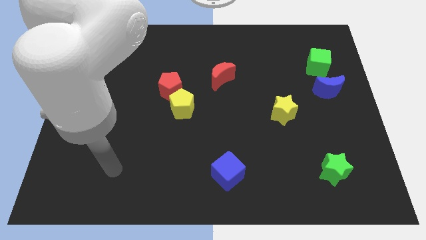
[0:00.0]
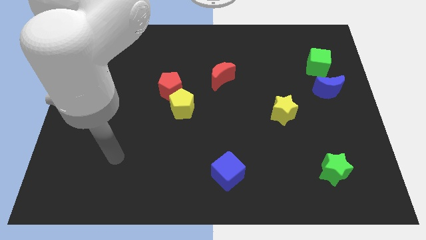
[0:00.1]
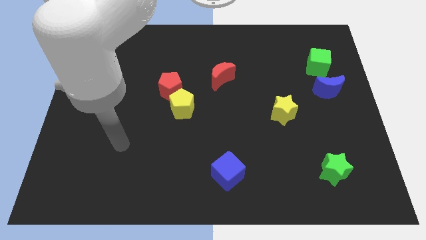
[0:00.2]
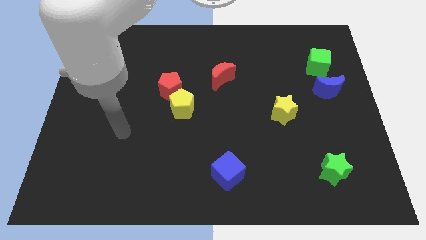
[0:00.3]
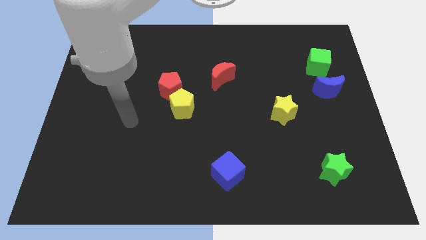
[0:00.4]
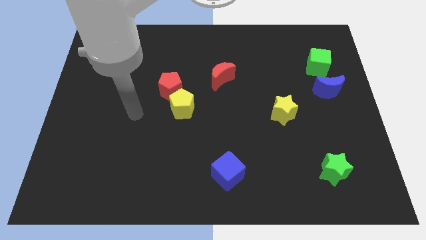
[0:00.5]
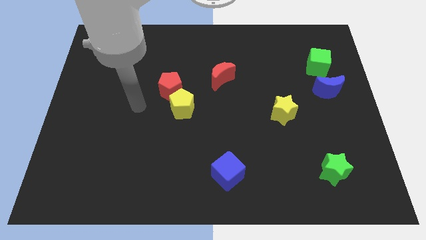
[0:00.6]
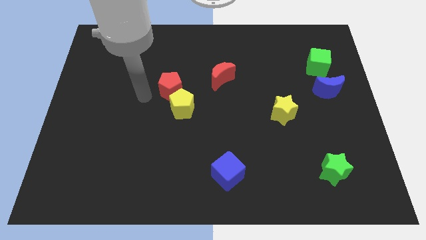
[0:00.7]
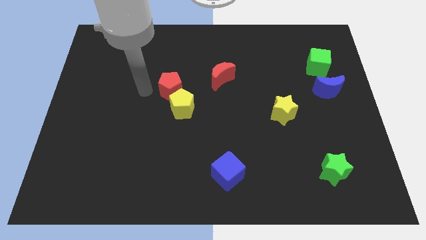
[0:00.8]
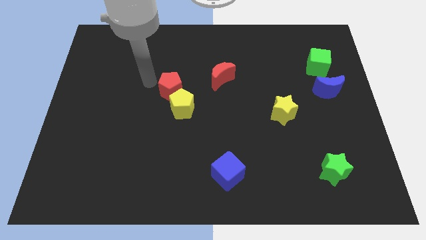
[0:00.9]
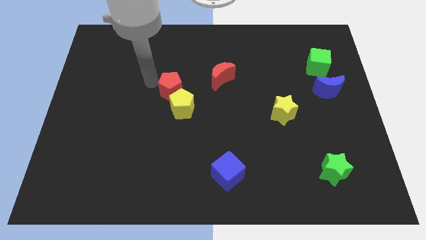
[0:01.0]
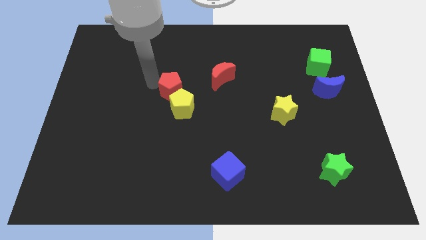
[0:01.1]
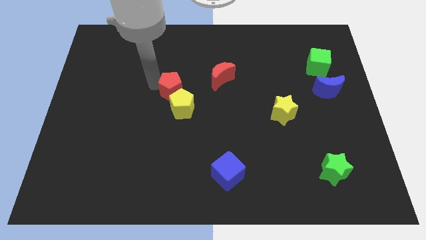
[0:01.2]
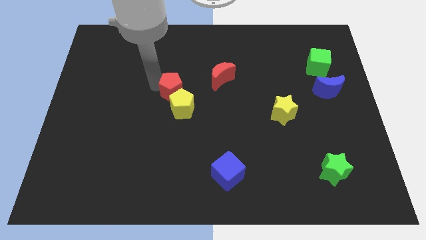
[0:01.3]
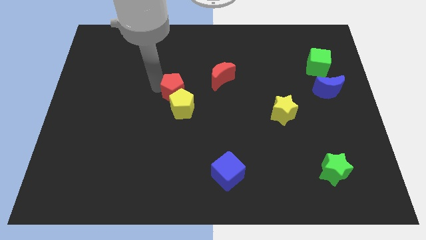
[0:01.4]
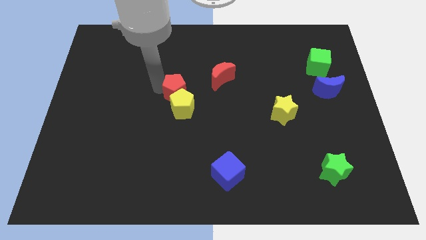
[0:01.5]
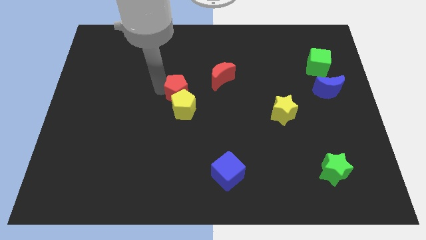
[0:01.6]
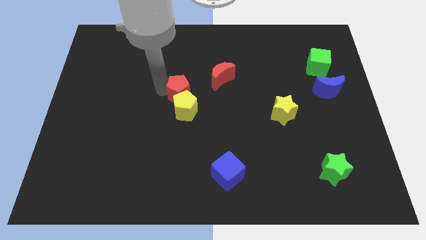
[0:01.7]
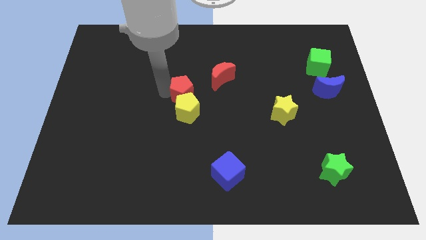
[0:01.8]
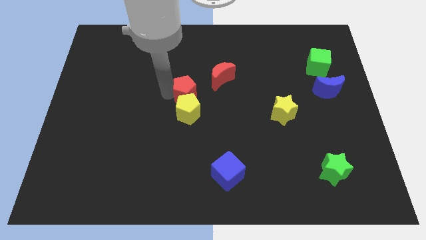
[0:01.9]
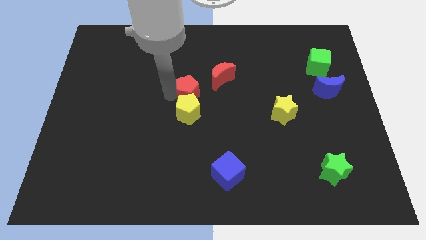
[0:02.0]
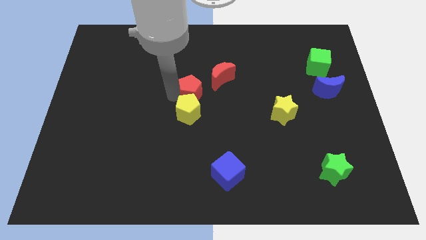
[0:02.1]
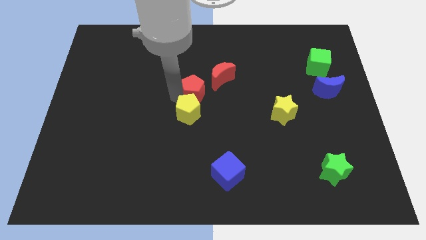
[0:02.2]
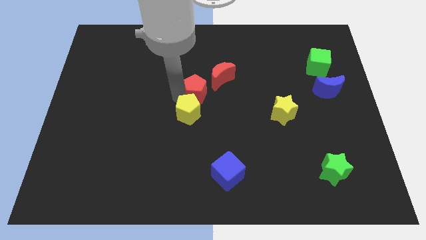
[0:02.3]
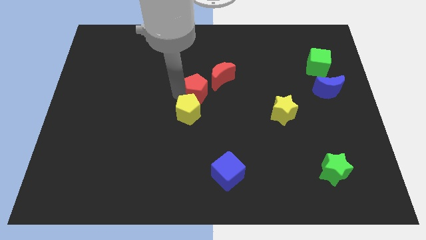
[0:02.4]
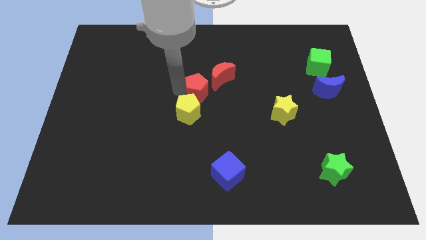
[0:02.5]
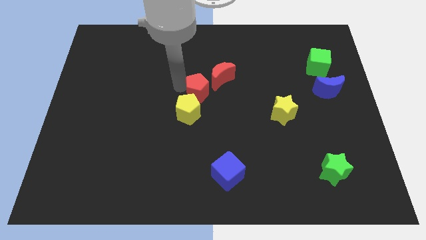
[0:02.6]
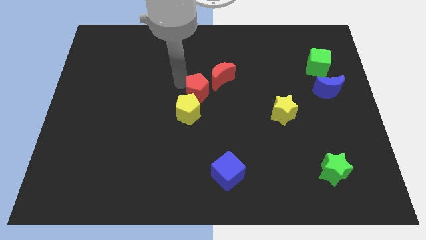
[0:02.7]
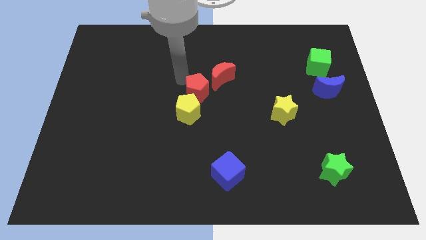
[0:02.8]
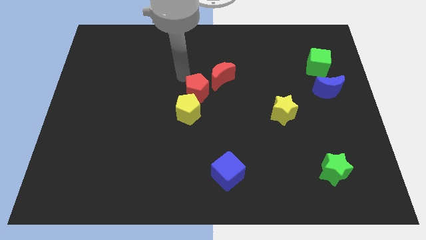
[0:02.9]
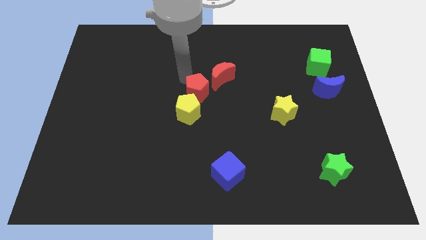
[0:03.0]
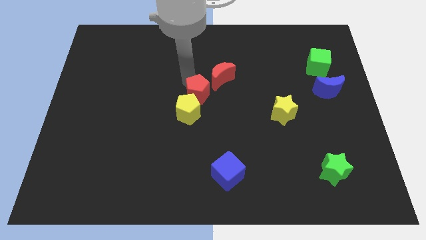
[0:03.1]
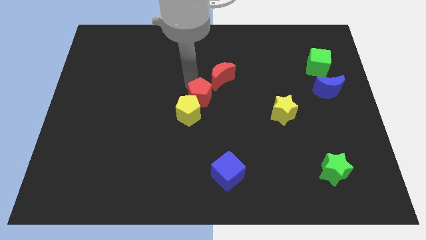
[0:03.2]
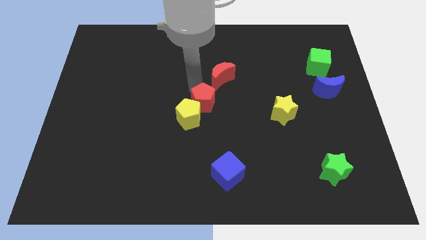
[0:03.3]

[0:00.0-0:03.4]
slightly push the red pentagon down and right

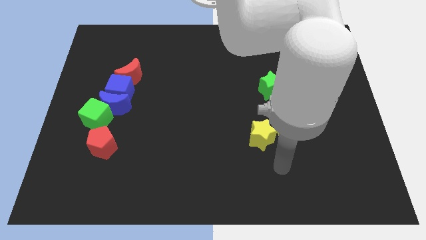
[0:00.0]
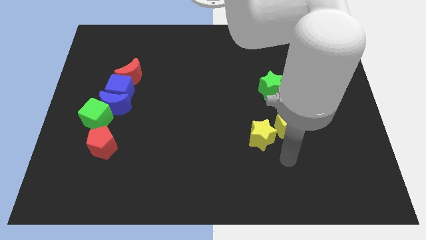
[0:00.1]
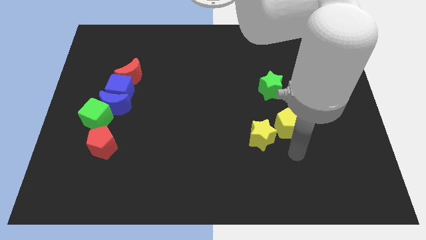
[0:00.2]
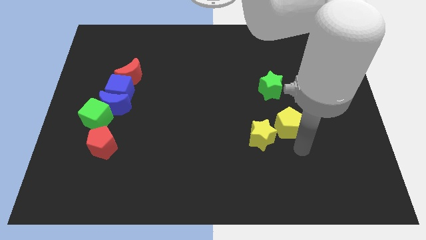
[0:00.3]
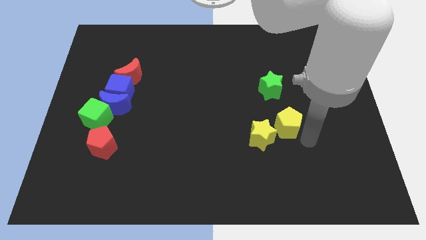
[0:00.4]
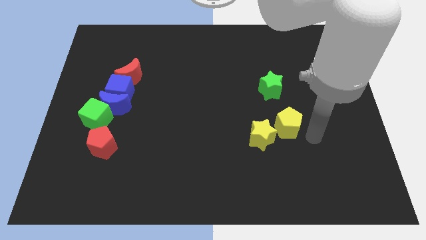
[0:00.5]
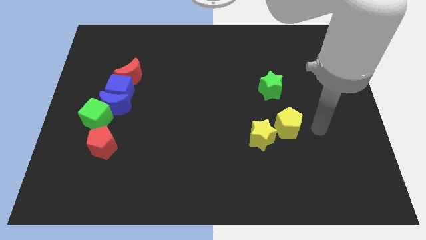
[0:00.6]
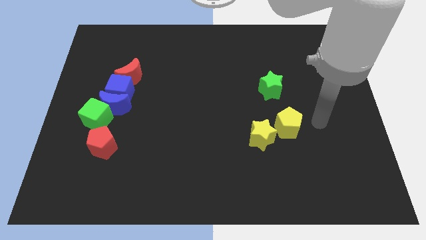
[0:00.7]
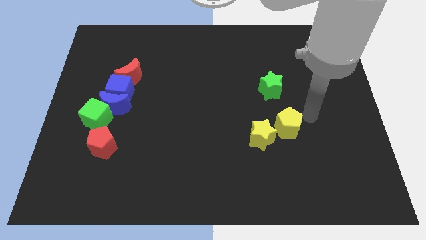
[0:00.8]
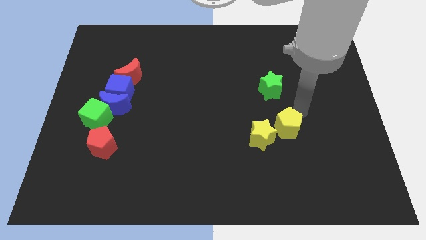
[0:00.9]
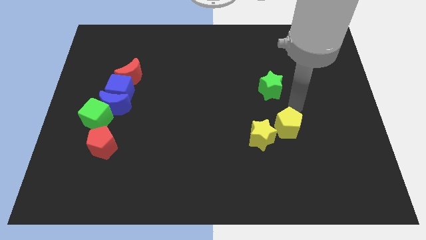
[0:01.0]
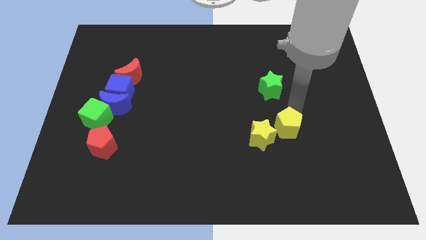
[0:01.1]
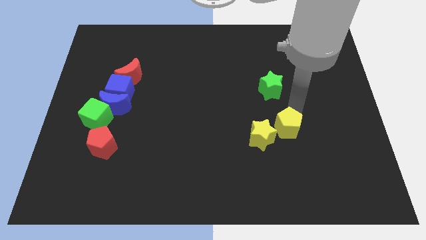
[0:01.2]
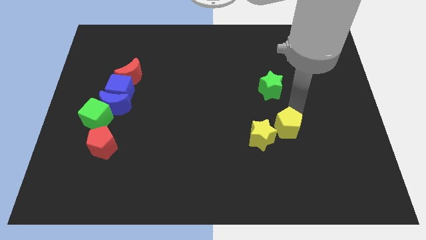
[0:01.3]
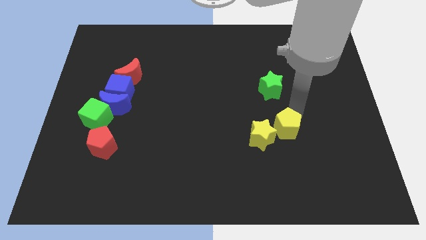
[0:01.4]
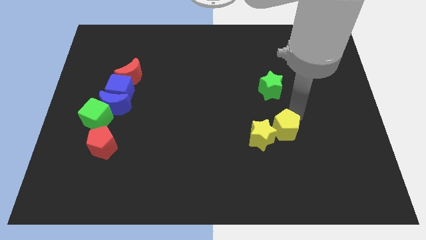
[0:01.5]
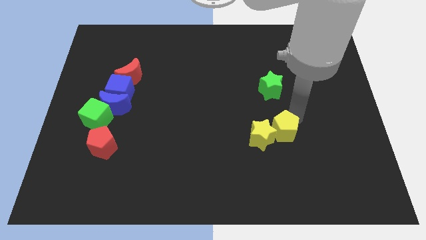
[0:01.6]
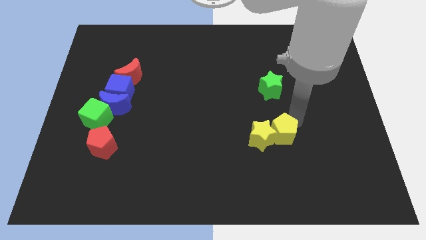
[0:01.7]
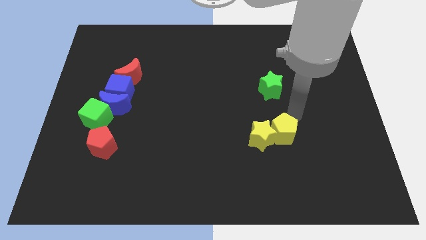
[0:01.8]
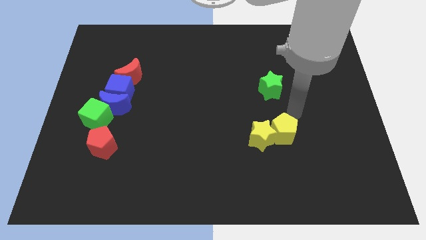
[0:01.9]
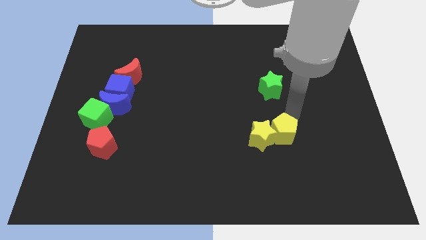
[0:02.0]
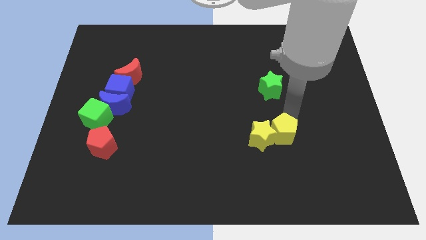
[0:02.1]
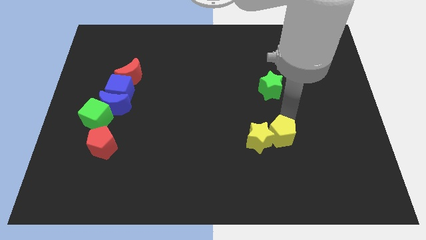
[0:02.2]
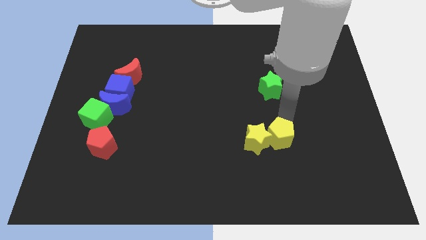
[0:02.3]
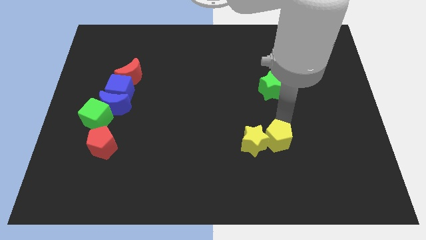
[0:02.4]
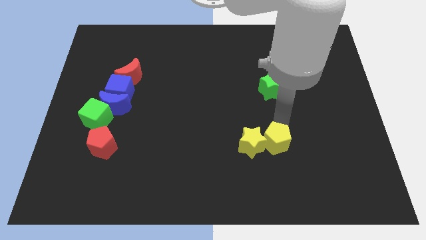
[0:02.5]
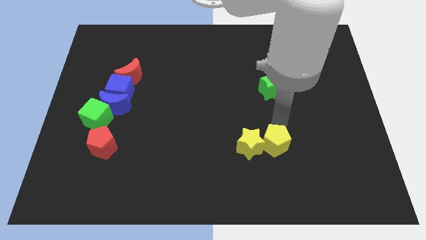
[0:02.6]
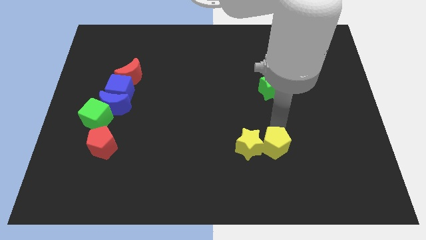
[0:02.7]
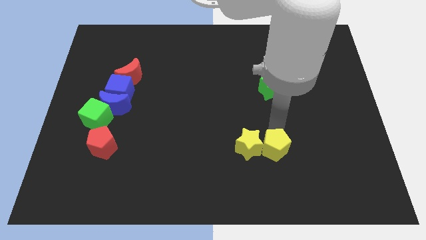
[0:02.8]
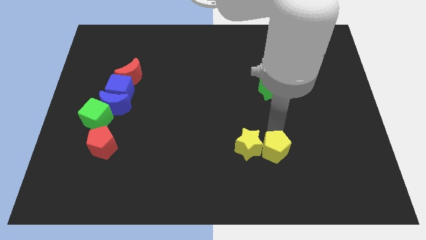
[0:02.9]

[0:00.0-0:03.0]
slide the yellow pentagon down and left a little

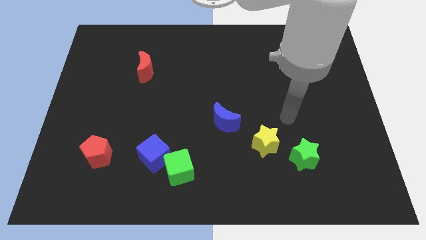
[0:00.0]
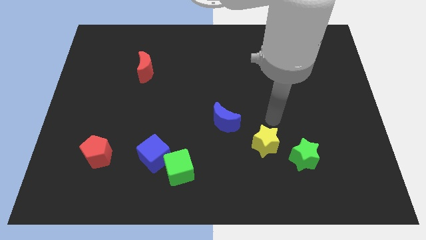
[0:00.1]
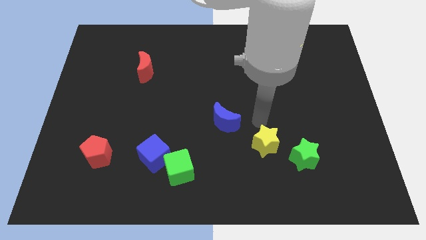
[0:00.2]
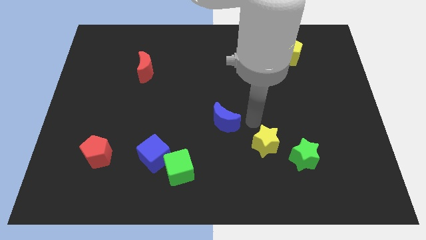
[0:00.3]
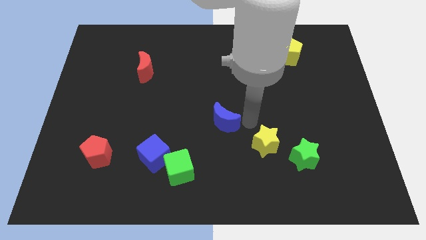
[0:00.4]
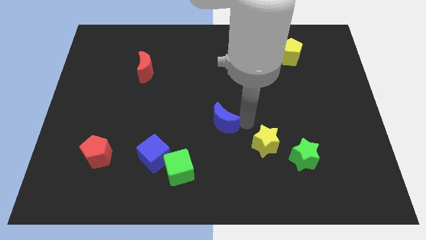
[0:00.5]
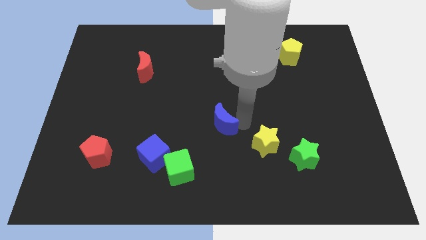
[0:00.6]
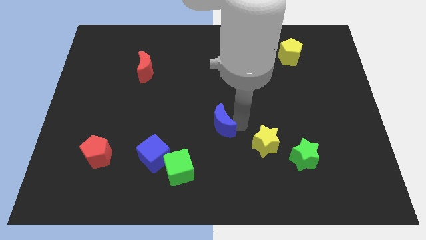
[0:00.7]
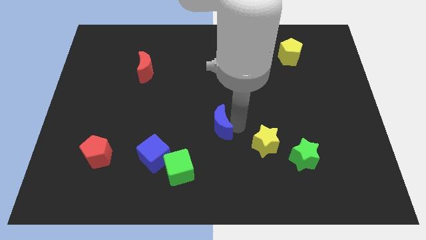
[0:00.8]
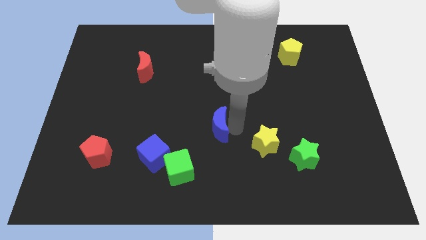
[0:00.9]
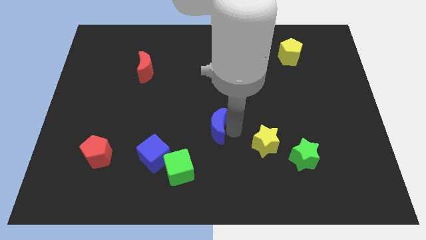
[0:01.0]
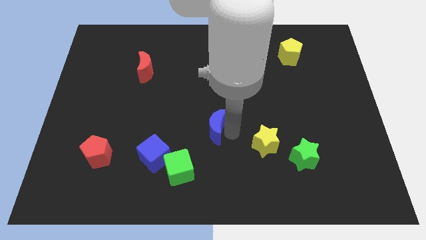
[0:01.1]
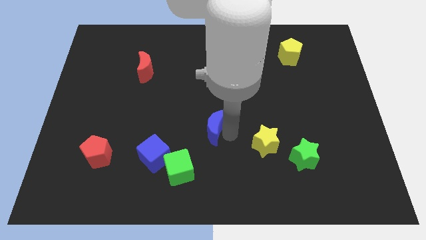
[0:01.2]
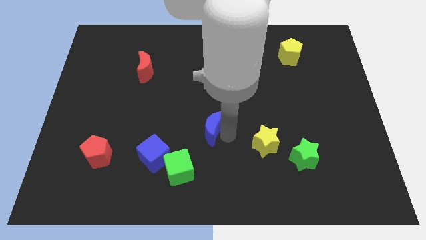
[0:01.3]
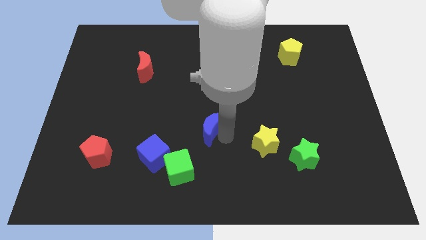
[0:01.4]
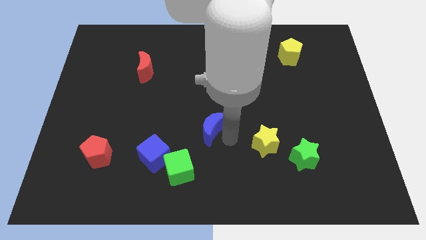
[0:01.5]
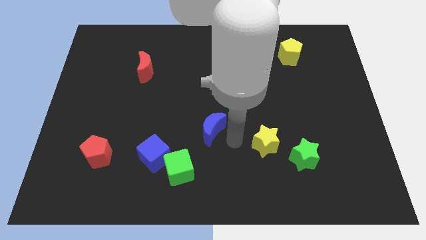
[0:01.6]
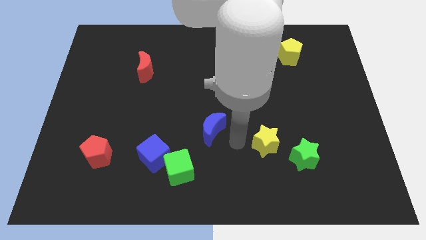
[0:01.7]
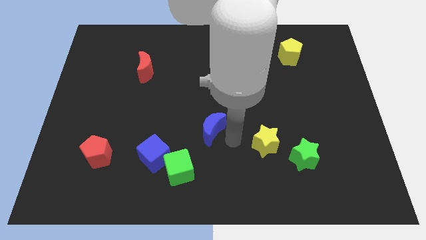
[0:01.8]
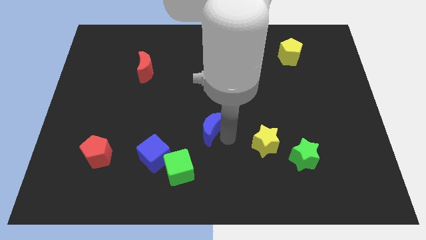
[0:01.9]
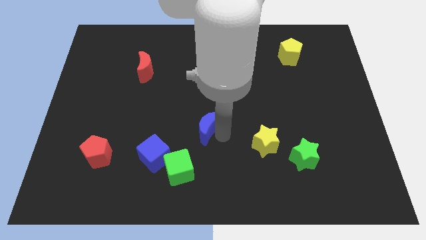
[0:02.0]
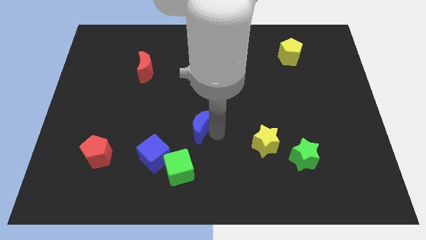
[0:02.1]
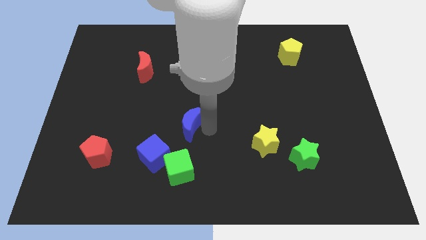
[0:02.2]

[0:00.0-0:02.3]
slightly move the blue moon to the left
